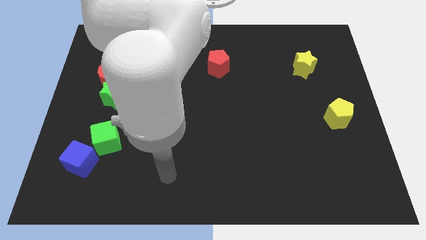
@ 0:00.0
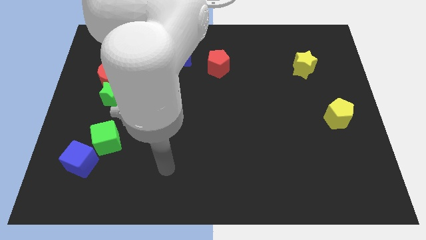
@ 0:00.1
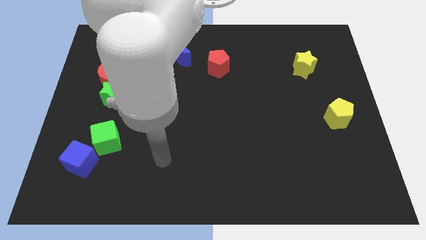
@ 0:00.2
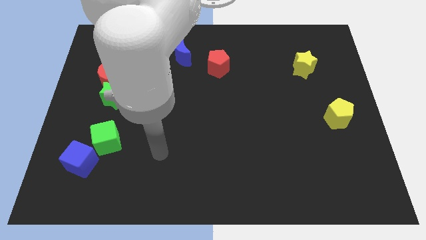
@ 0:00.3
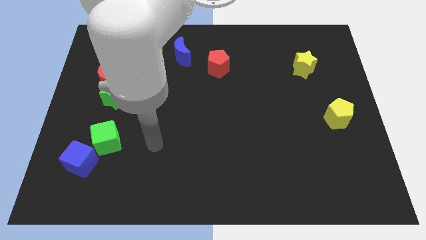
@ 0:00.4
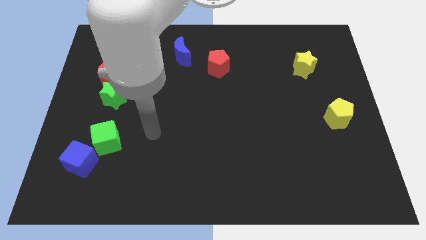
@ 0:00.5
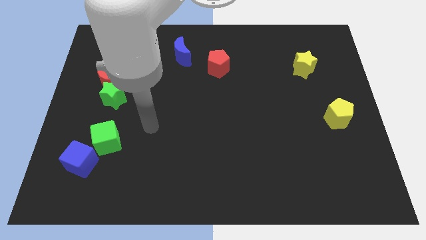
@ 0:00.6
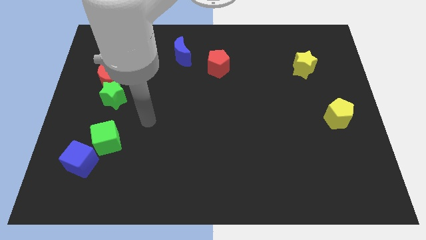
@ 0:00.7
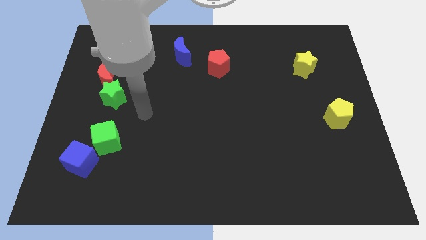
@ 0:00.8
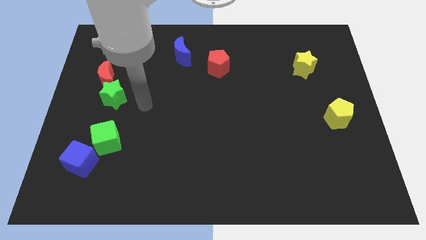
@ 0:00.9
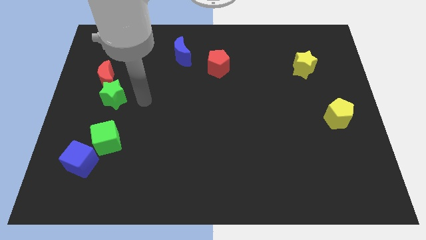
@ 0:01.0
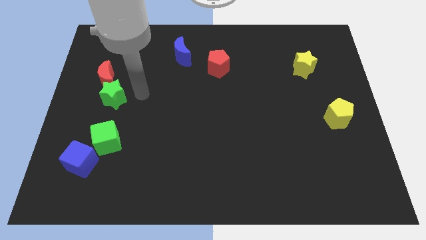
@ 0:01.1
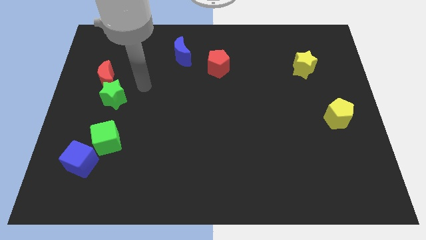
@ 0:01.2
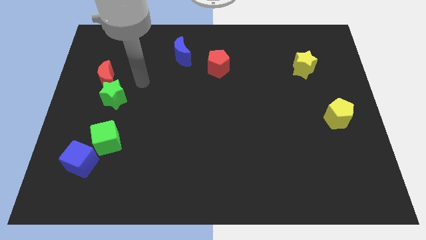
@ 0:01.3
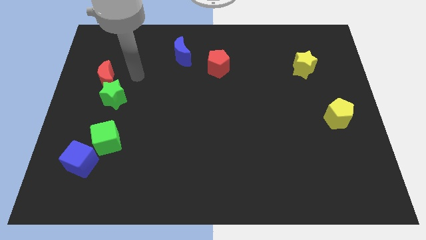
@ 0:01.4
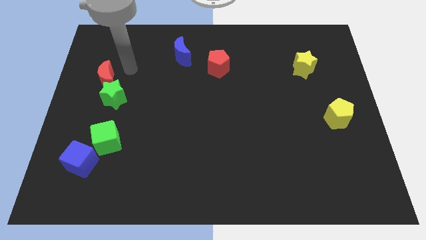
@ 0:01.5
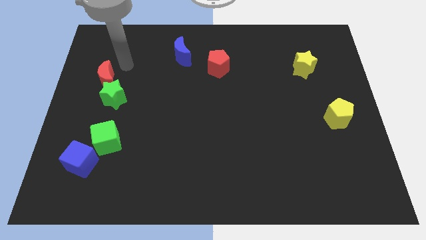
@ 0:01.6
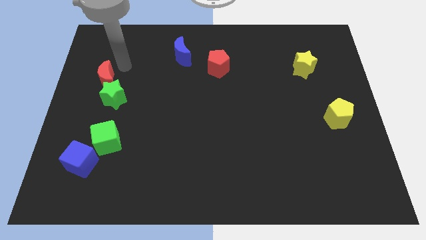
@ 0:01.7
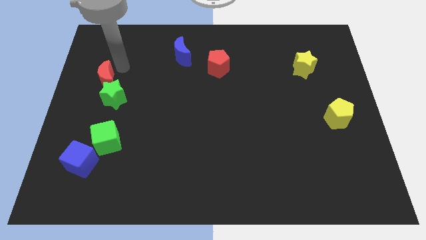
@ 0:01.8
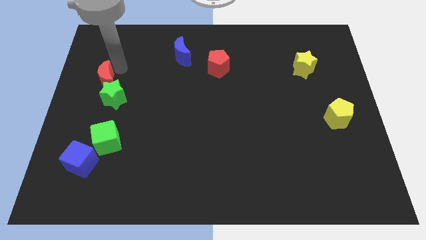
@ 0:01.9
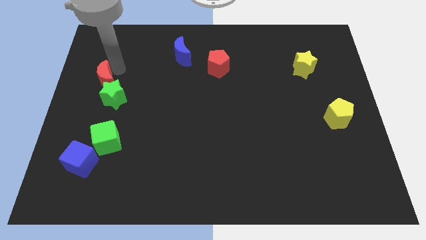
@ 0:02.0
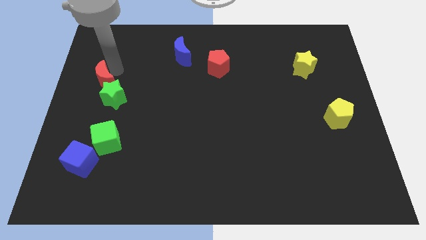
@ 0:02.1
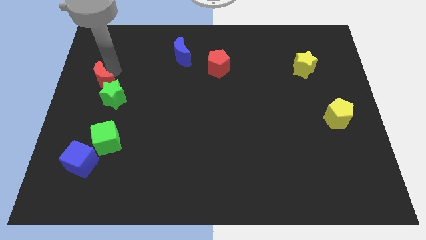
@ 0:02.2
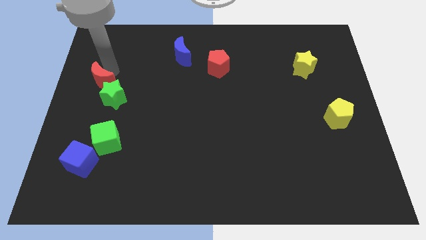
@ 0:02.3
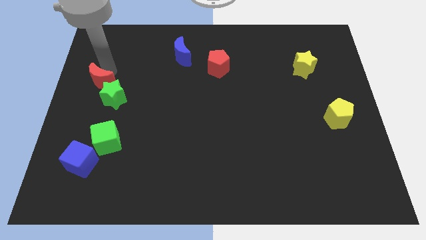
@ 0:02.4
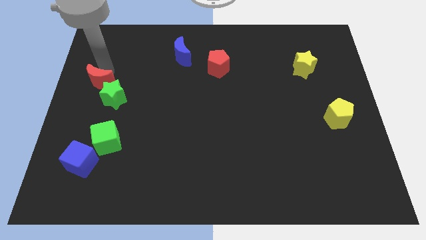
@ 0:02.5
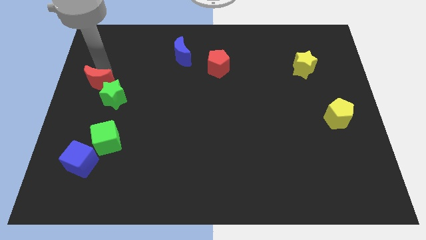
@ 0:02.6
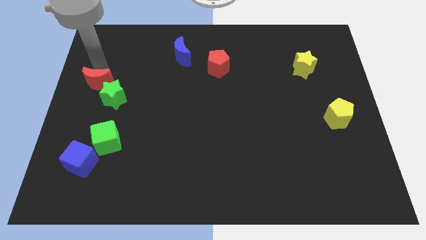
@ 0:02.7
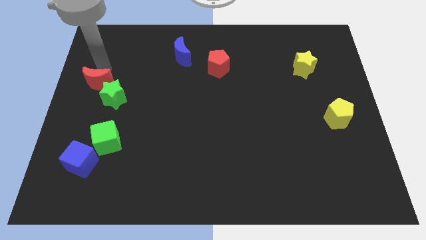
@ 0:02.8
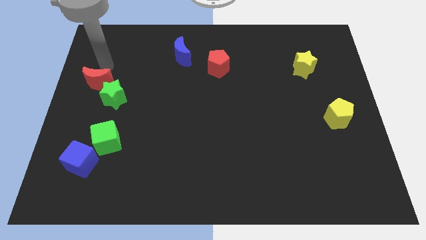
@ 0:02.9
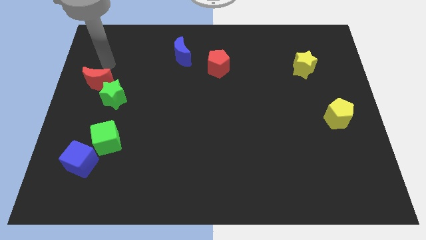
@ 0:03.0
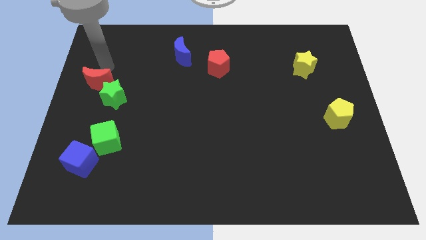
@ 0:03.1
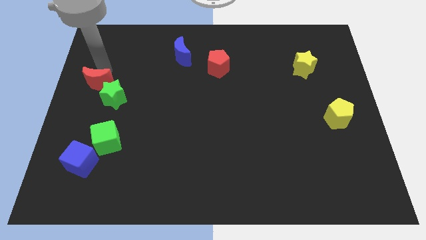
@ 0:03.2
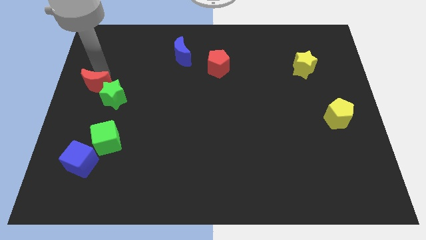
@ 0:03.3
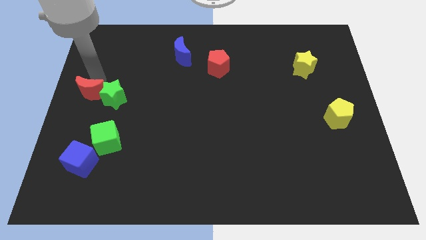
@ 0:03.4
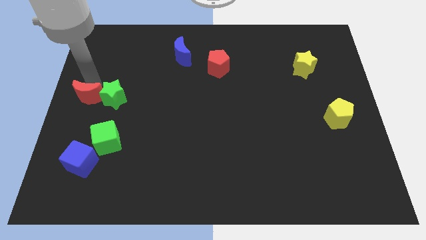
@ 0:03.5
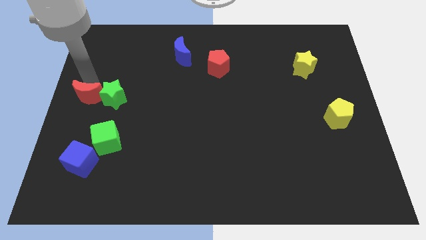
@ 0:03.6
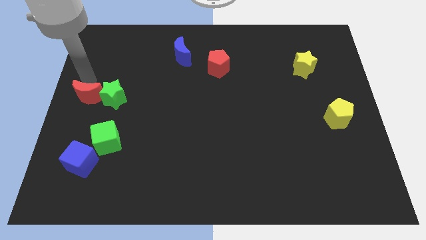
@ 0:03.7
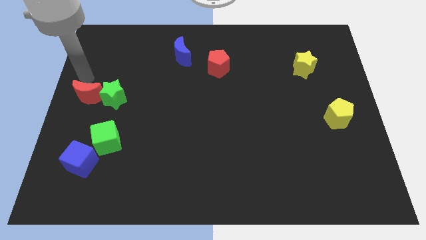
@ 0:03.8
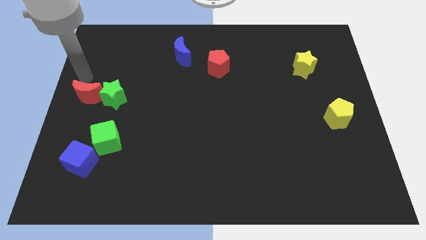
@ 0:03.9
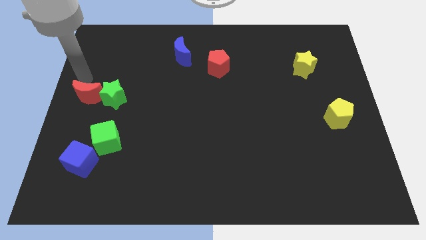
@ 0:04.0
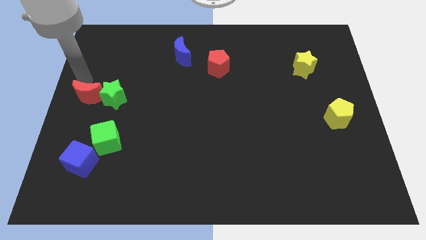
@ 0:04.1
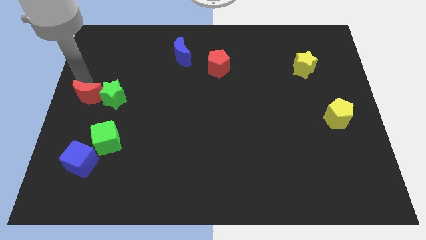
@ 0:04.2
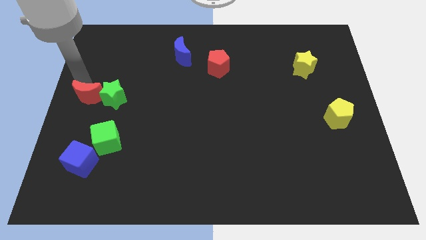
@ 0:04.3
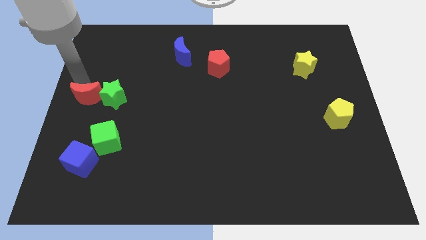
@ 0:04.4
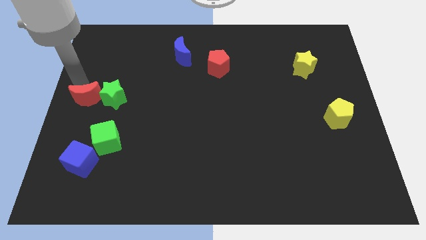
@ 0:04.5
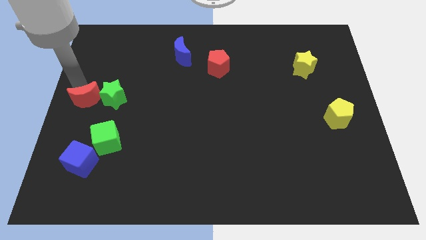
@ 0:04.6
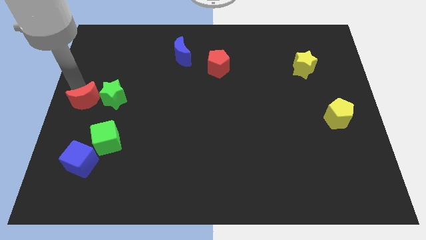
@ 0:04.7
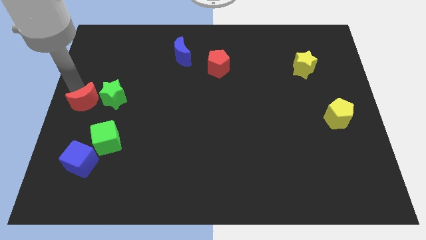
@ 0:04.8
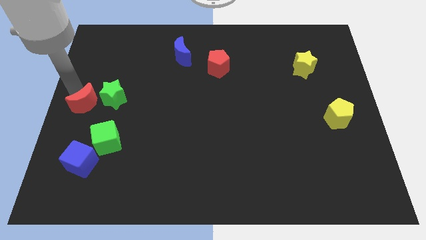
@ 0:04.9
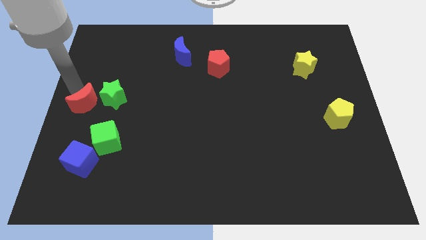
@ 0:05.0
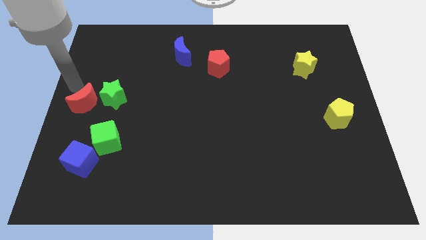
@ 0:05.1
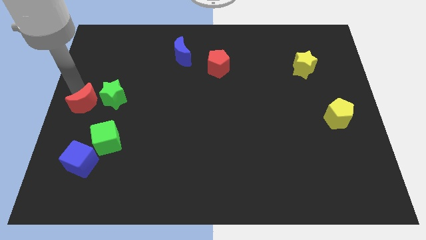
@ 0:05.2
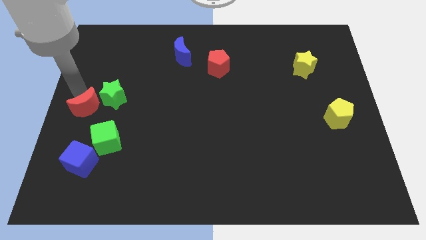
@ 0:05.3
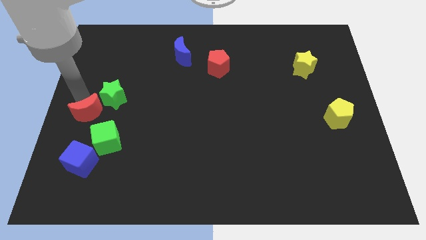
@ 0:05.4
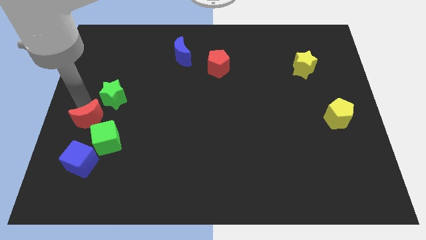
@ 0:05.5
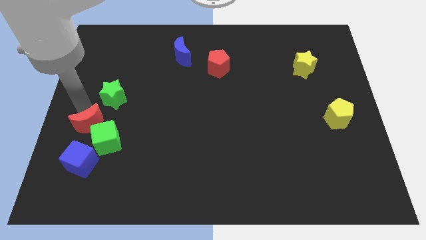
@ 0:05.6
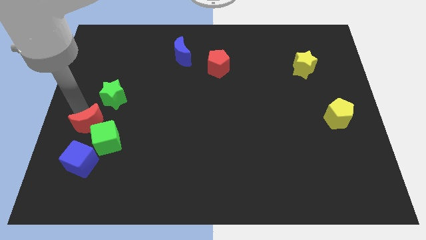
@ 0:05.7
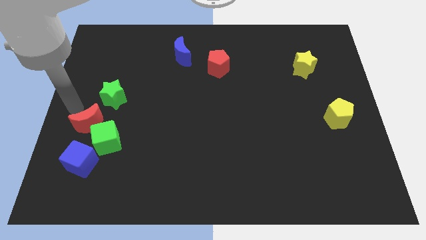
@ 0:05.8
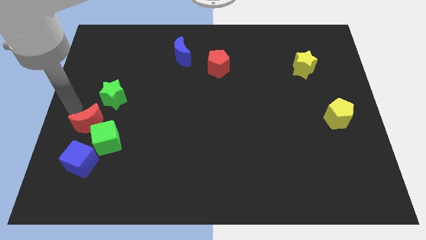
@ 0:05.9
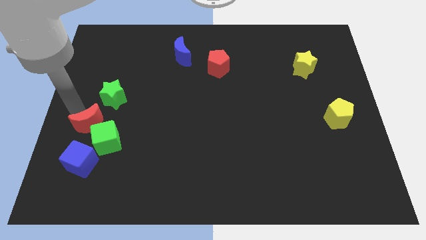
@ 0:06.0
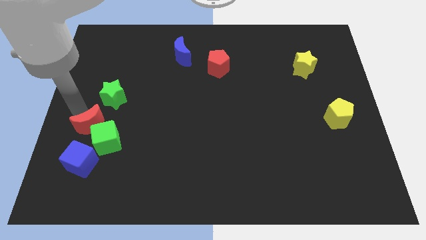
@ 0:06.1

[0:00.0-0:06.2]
put the red moon towards the green cube

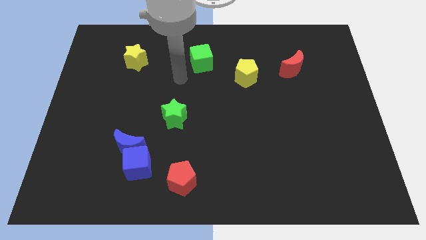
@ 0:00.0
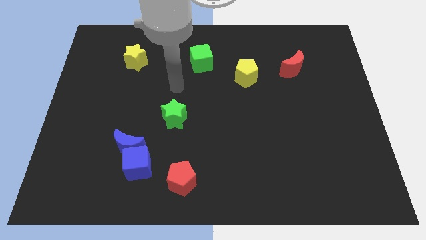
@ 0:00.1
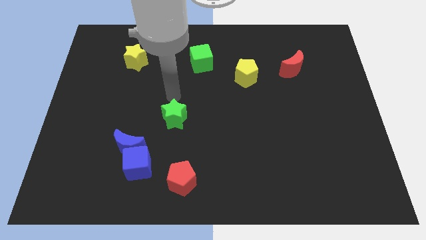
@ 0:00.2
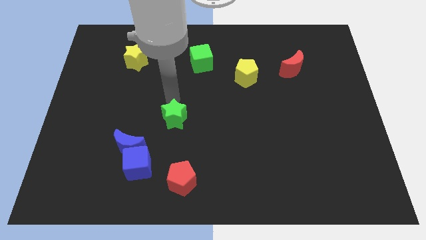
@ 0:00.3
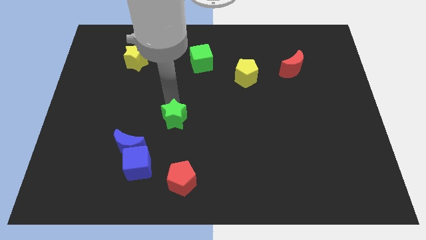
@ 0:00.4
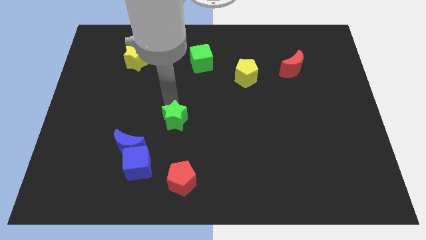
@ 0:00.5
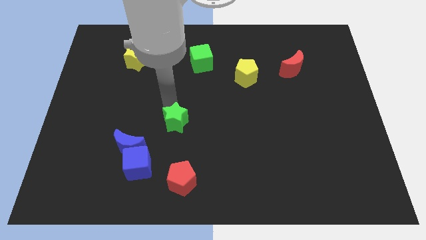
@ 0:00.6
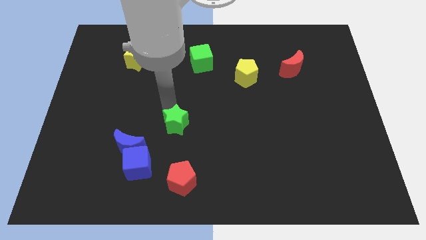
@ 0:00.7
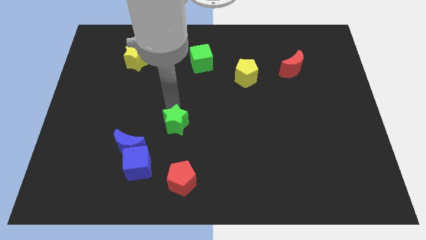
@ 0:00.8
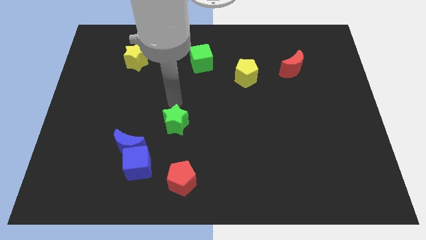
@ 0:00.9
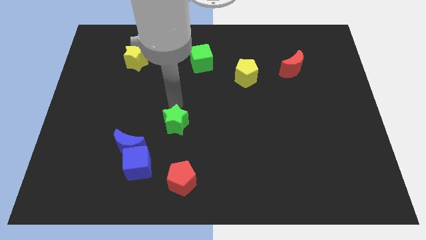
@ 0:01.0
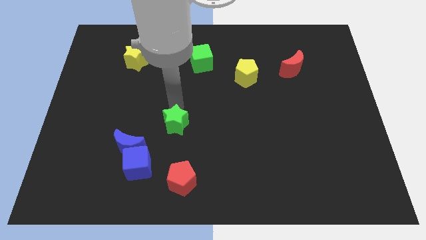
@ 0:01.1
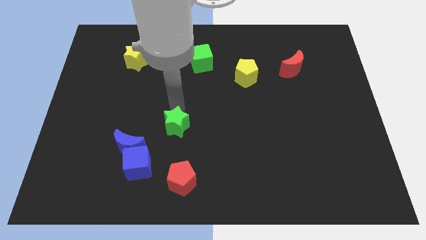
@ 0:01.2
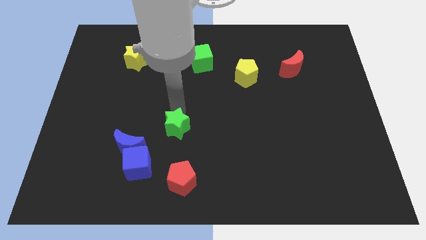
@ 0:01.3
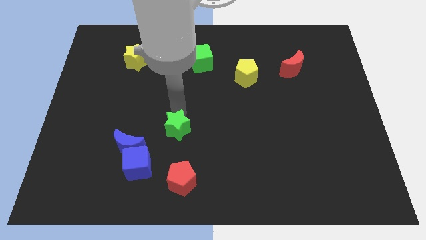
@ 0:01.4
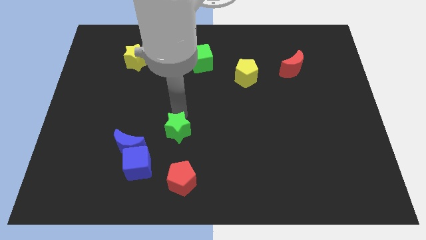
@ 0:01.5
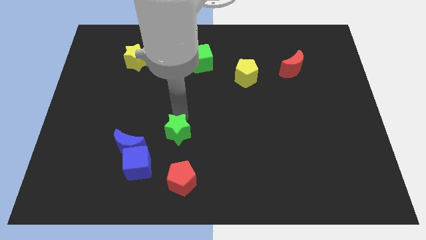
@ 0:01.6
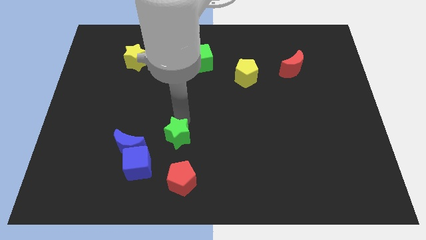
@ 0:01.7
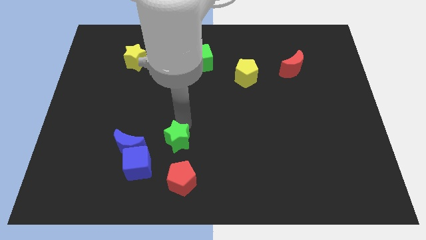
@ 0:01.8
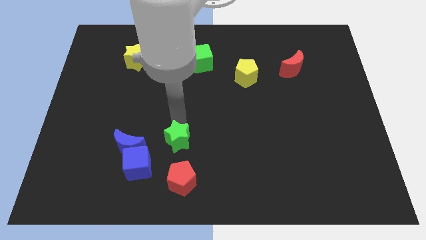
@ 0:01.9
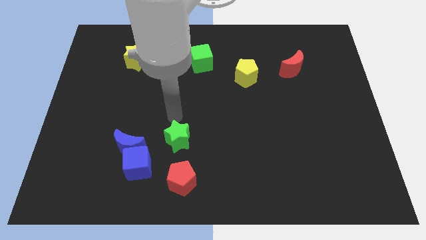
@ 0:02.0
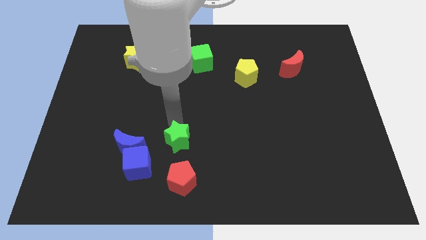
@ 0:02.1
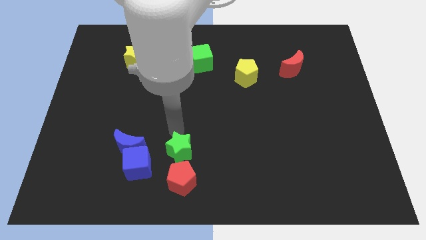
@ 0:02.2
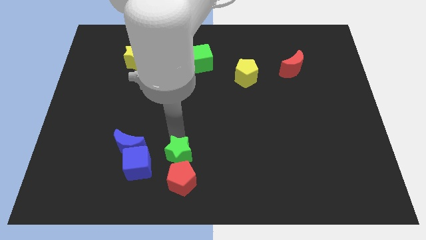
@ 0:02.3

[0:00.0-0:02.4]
move the green star close to the red pentagon
